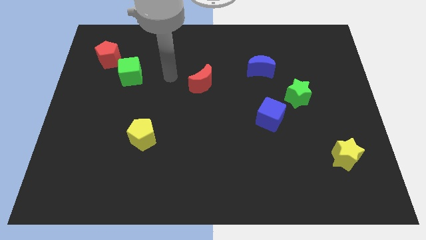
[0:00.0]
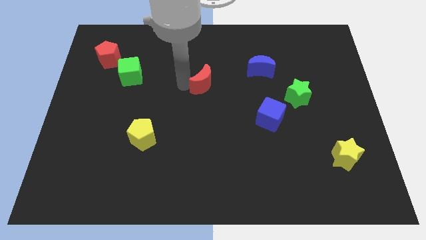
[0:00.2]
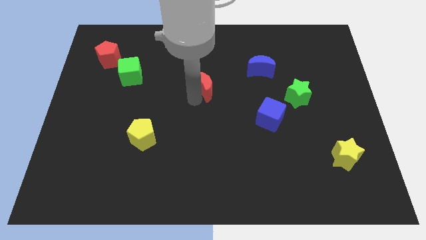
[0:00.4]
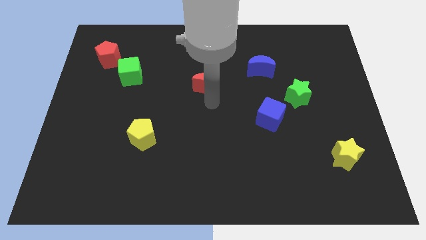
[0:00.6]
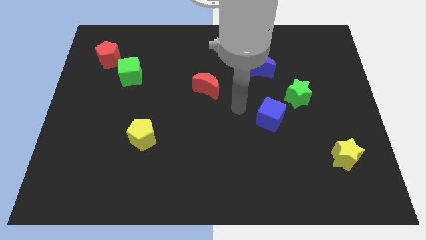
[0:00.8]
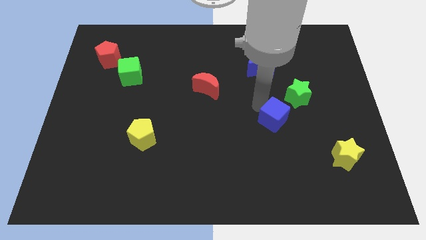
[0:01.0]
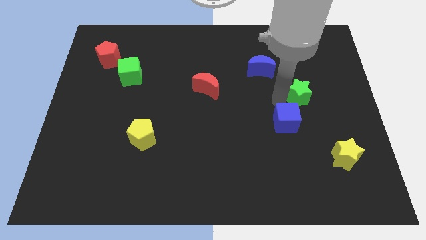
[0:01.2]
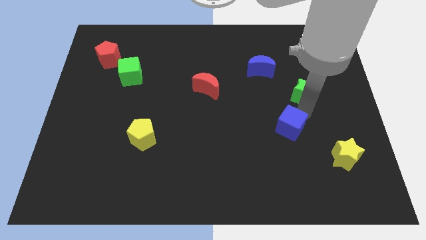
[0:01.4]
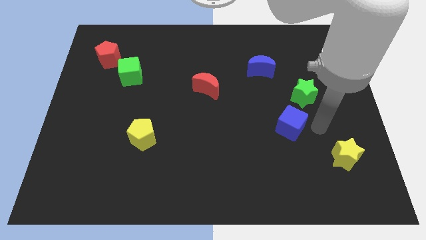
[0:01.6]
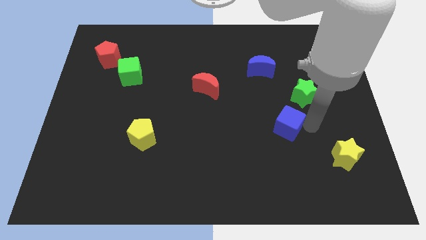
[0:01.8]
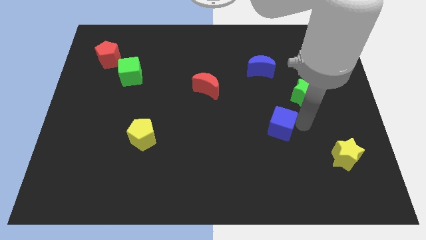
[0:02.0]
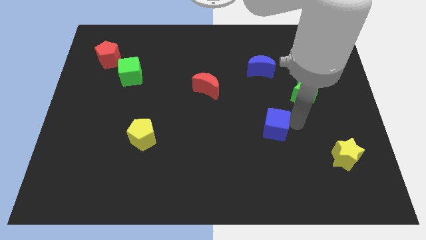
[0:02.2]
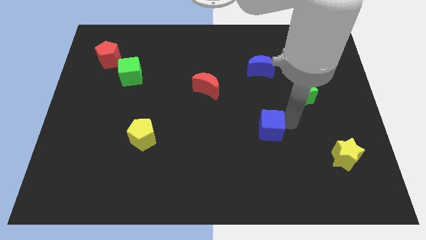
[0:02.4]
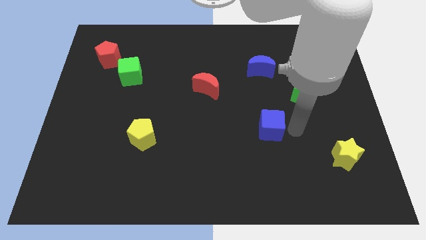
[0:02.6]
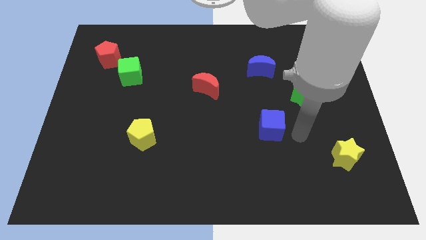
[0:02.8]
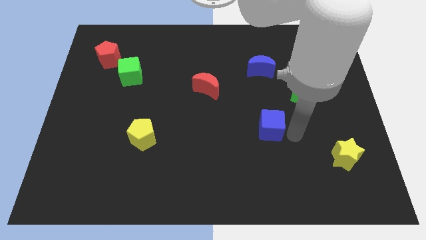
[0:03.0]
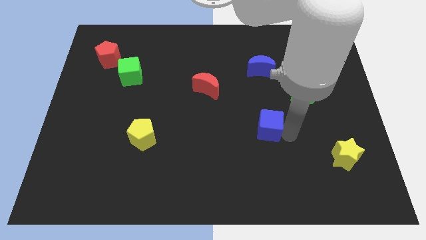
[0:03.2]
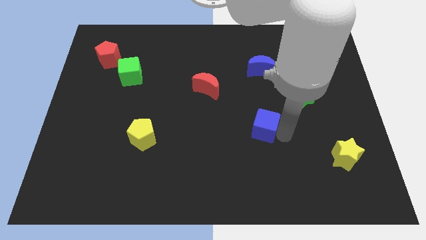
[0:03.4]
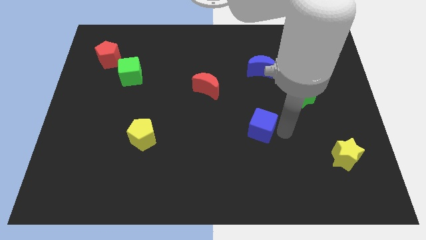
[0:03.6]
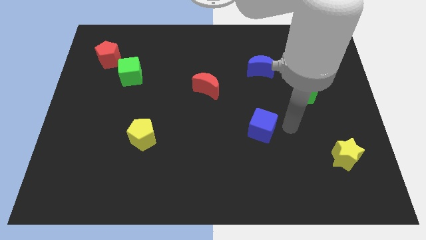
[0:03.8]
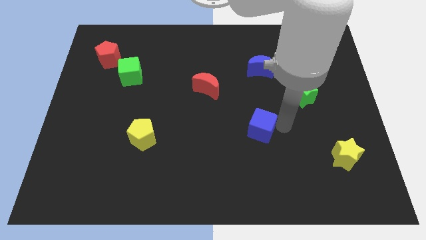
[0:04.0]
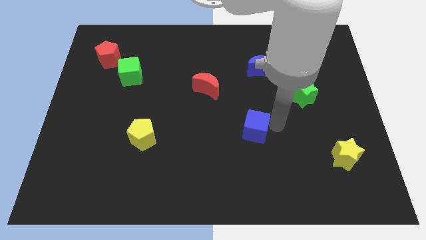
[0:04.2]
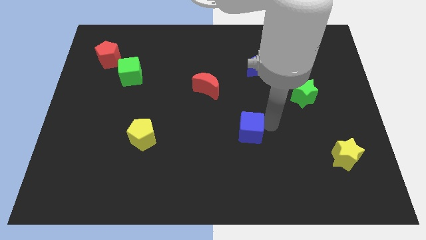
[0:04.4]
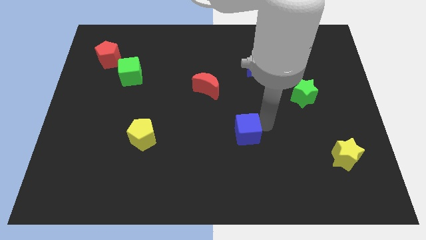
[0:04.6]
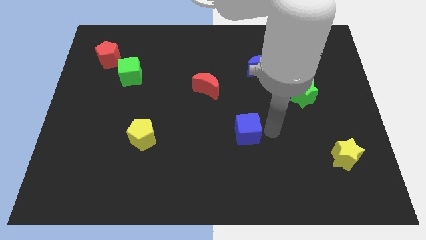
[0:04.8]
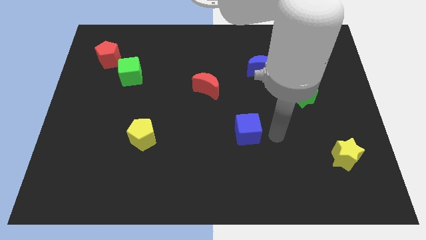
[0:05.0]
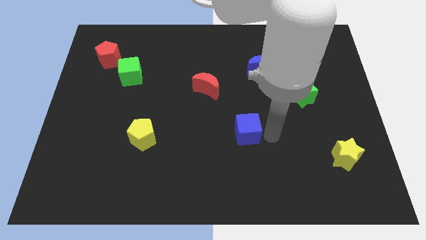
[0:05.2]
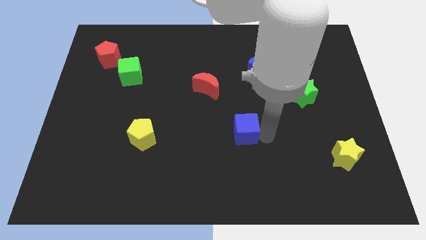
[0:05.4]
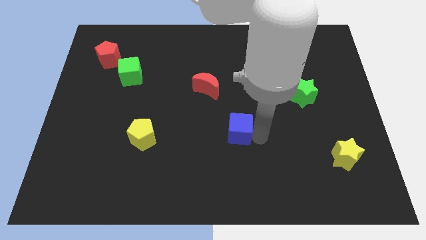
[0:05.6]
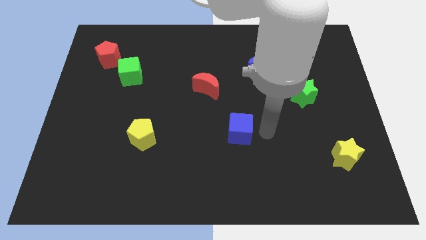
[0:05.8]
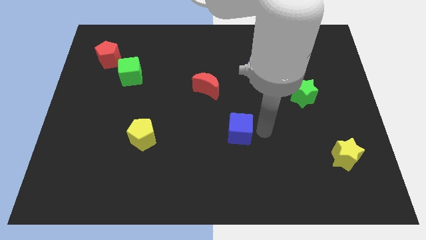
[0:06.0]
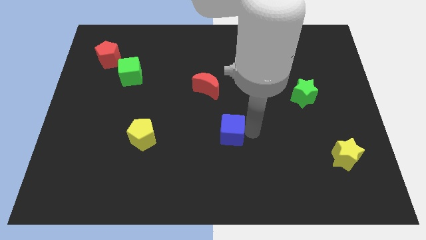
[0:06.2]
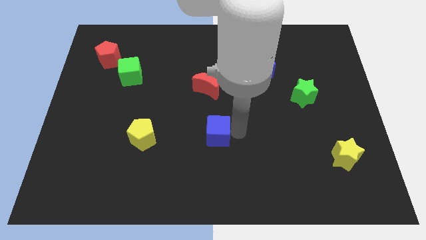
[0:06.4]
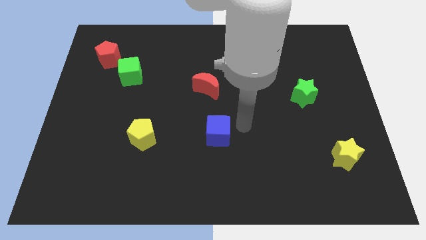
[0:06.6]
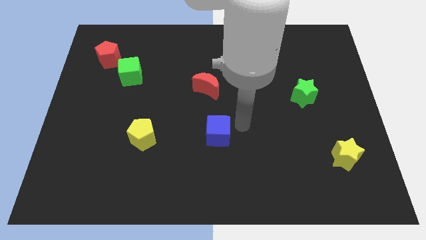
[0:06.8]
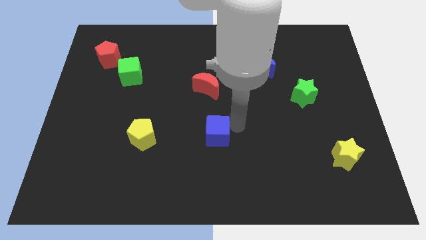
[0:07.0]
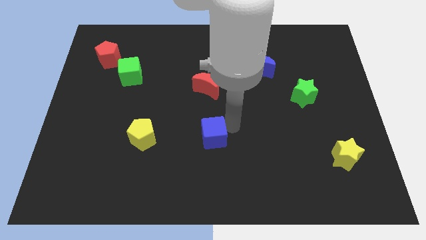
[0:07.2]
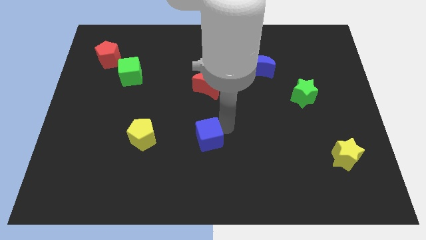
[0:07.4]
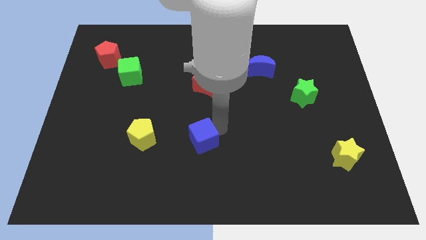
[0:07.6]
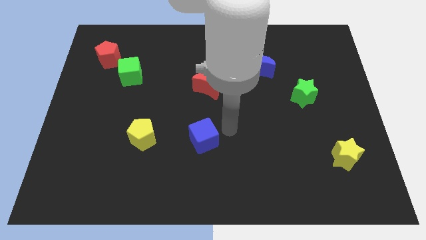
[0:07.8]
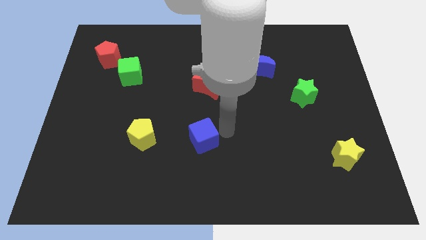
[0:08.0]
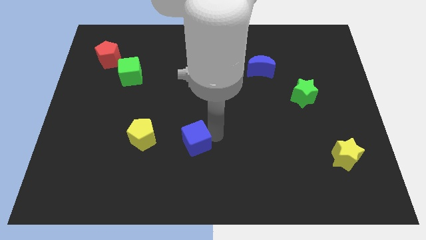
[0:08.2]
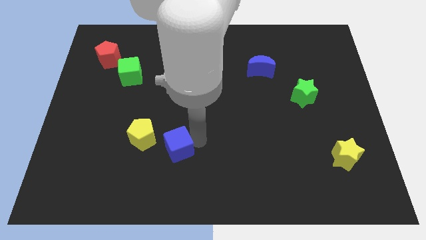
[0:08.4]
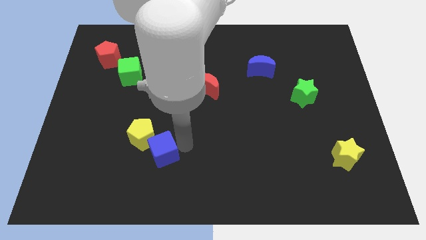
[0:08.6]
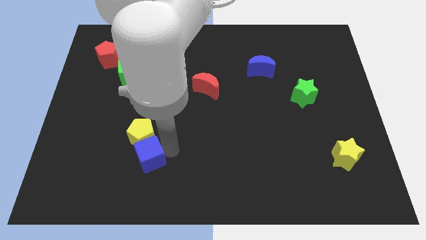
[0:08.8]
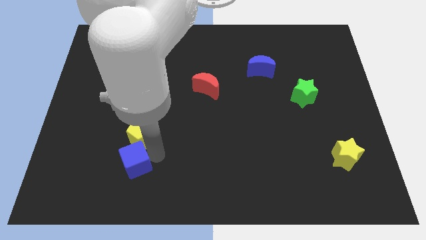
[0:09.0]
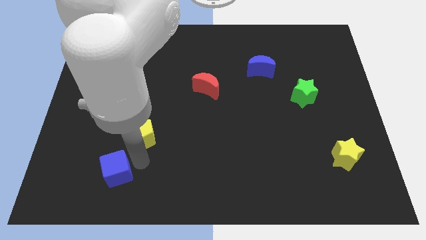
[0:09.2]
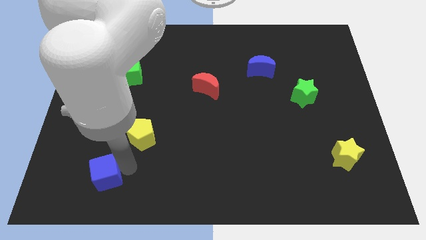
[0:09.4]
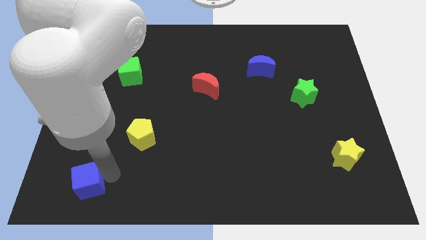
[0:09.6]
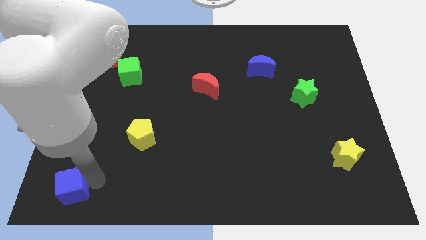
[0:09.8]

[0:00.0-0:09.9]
put the blue cube to the bottom left corner

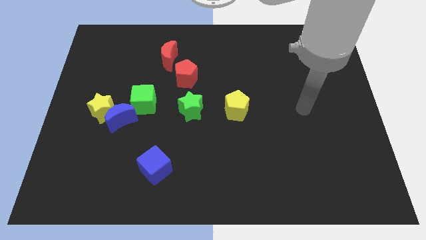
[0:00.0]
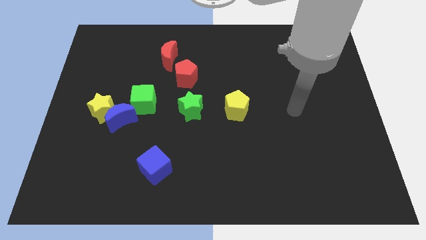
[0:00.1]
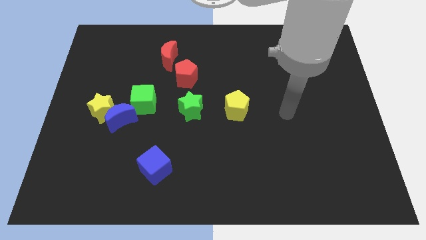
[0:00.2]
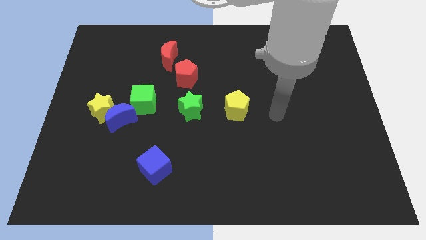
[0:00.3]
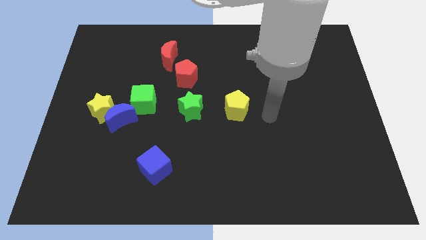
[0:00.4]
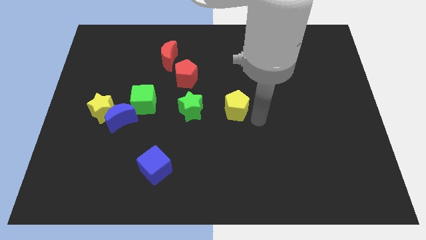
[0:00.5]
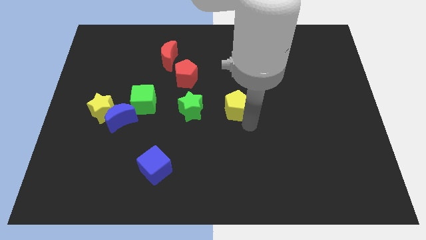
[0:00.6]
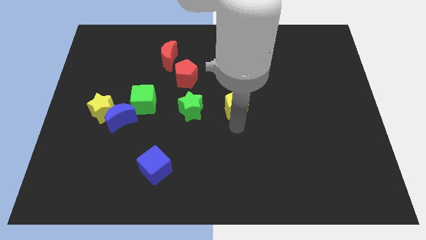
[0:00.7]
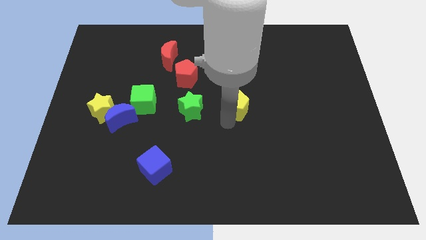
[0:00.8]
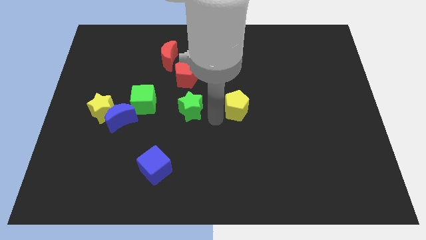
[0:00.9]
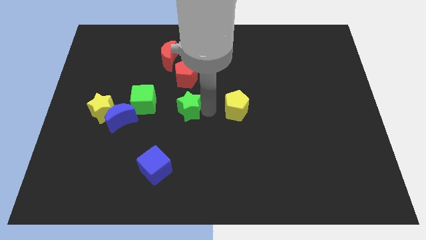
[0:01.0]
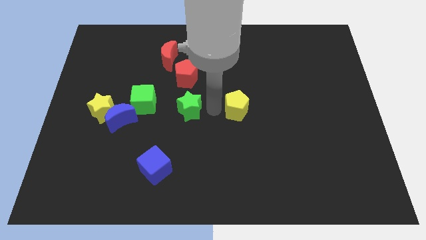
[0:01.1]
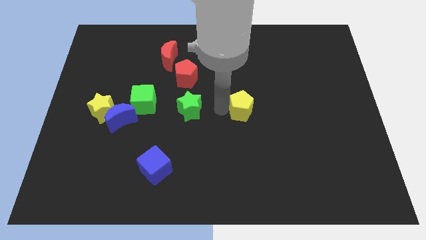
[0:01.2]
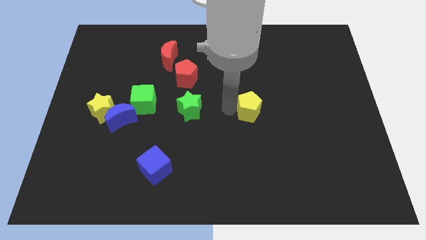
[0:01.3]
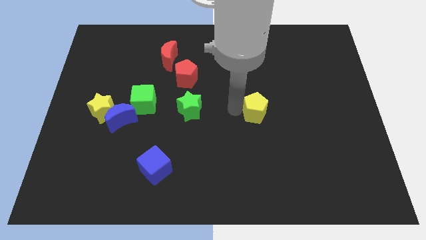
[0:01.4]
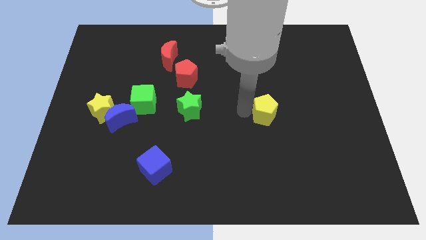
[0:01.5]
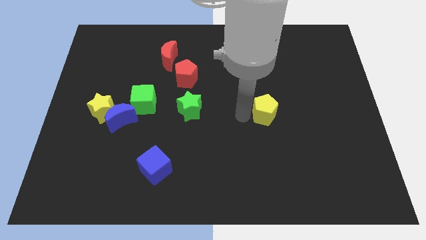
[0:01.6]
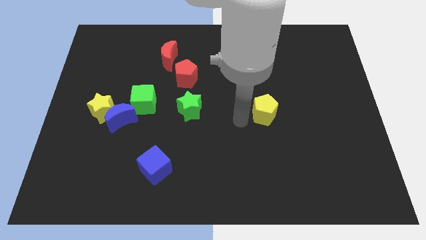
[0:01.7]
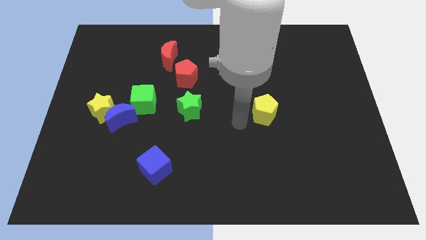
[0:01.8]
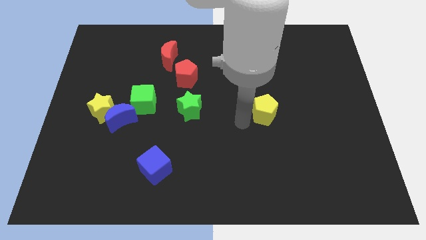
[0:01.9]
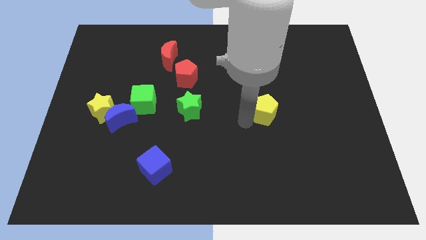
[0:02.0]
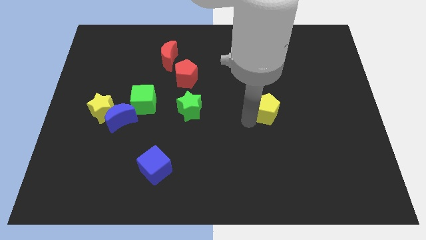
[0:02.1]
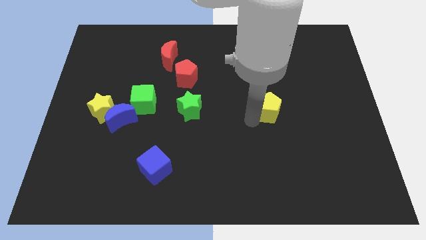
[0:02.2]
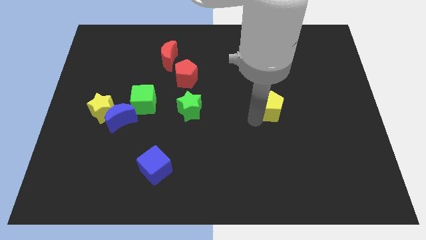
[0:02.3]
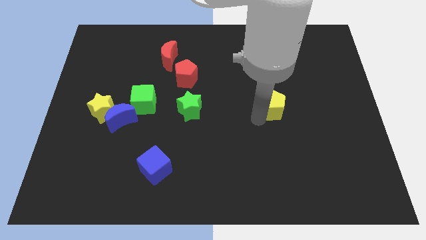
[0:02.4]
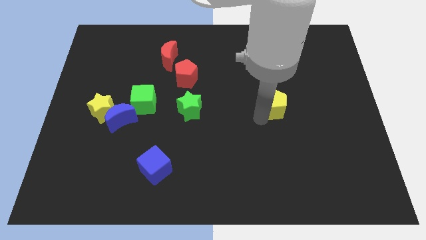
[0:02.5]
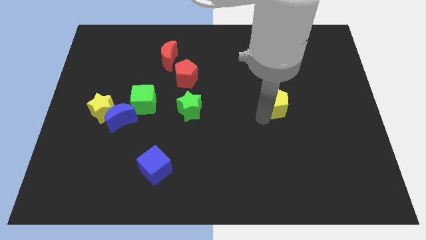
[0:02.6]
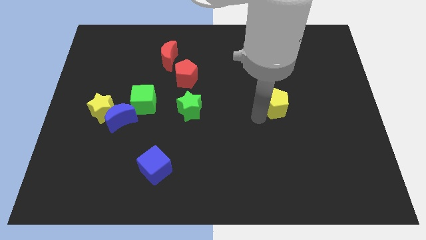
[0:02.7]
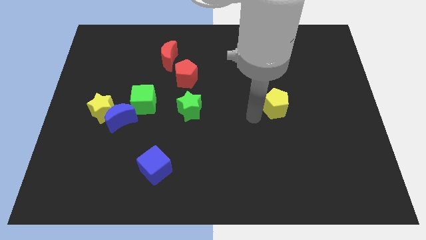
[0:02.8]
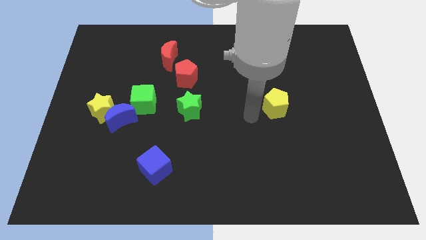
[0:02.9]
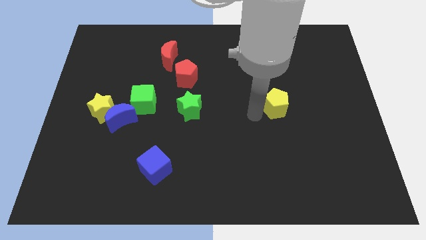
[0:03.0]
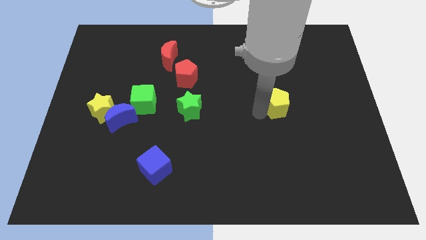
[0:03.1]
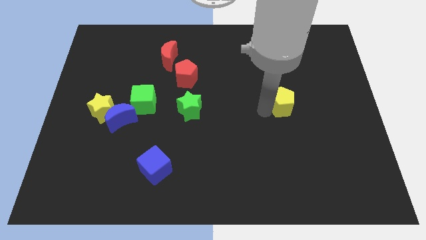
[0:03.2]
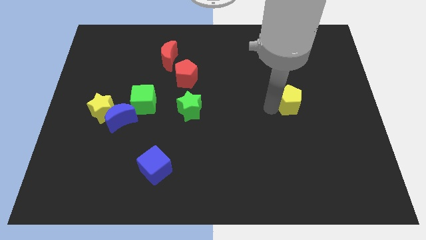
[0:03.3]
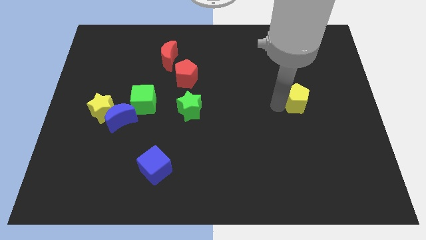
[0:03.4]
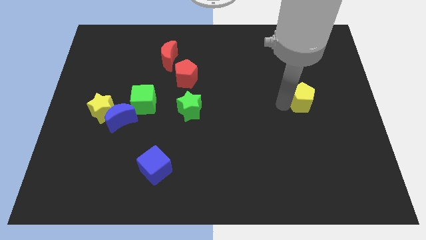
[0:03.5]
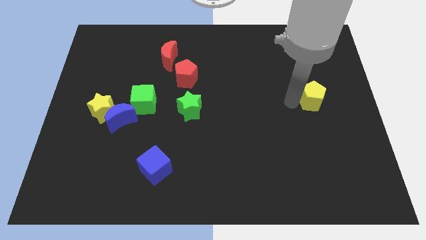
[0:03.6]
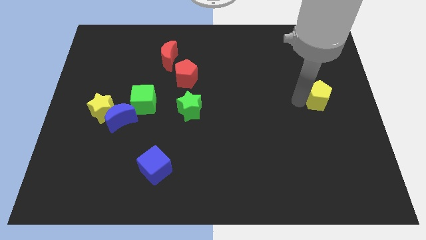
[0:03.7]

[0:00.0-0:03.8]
slide the yellow pentagon to the center right
